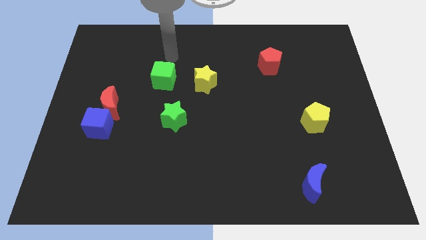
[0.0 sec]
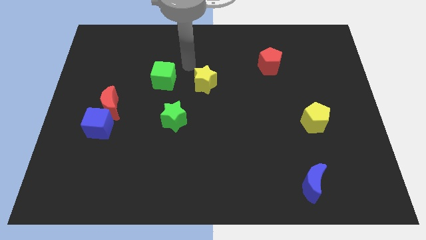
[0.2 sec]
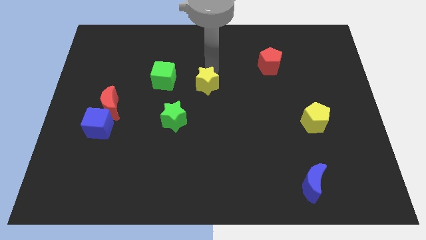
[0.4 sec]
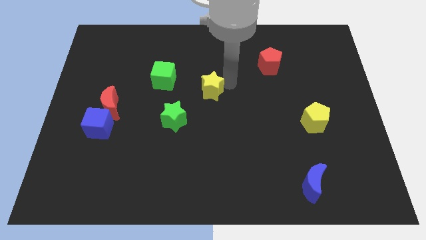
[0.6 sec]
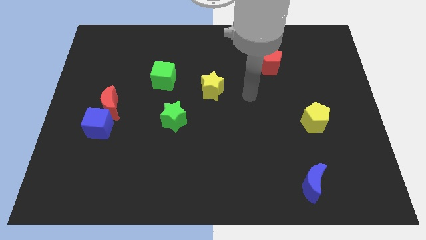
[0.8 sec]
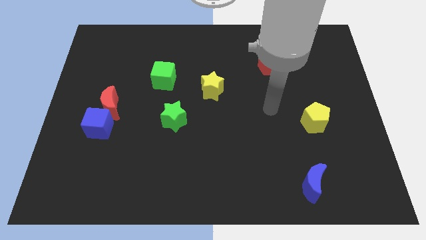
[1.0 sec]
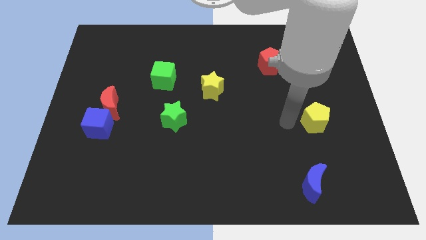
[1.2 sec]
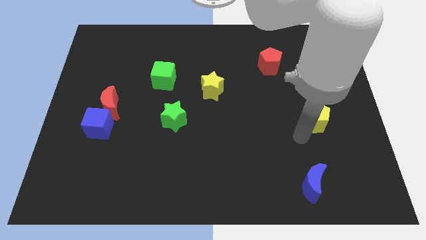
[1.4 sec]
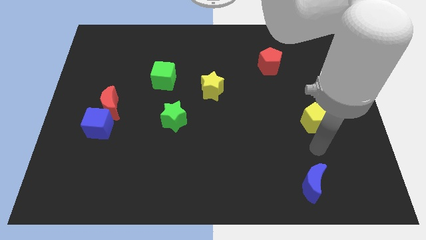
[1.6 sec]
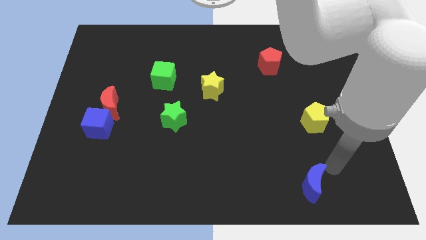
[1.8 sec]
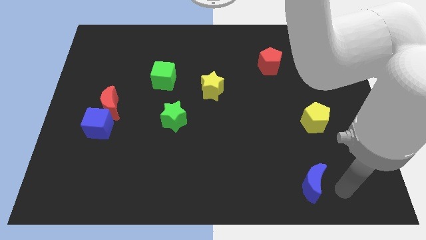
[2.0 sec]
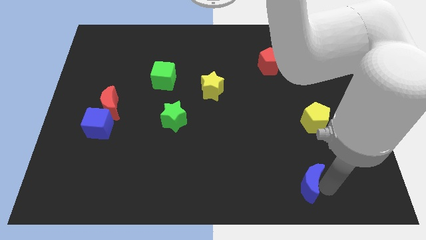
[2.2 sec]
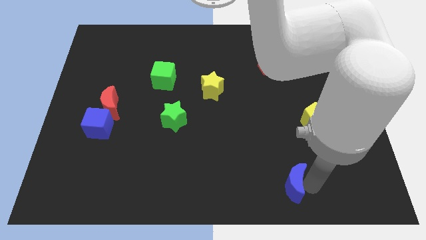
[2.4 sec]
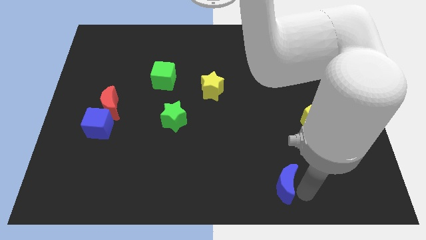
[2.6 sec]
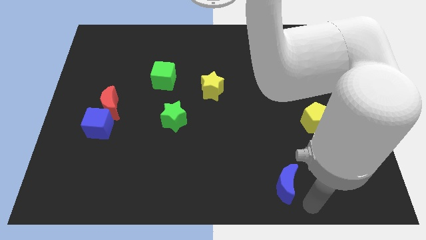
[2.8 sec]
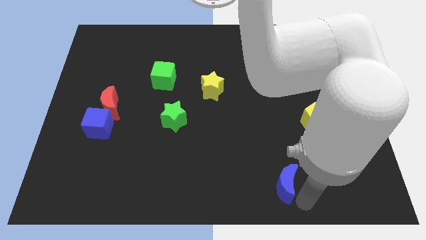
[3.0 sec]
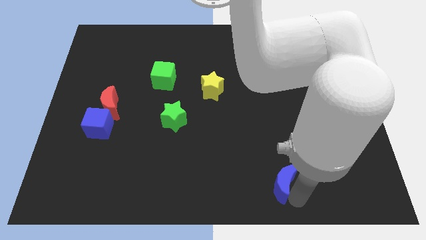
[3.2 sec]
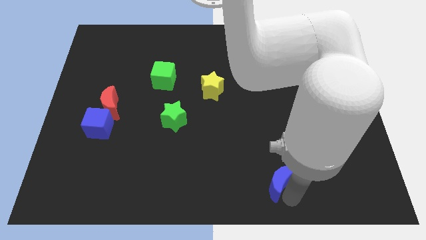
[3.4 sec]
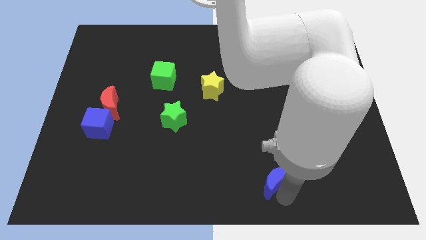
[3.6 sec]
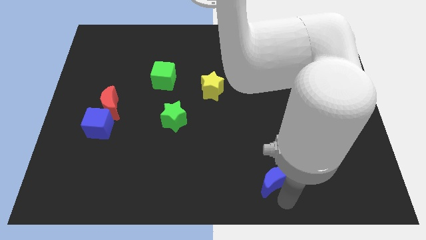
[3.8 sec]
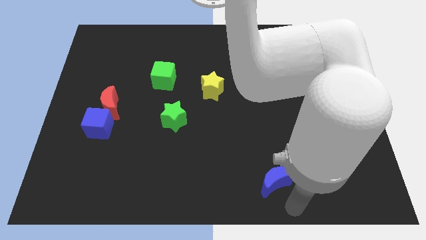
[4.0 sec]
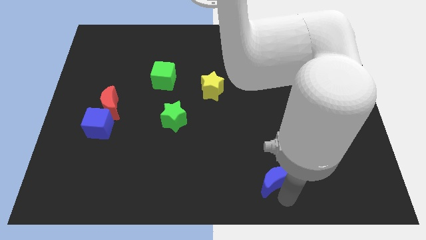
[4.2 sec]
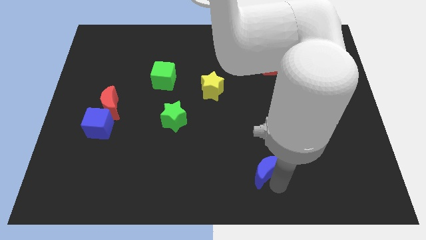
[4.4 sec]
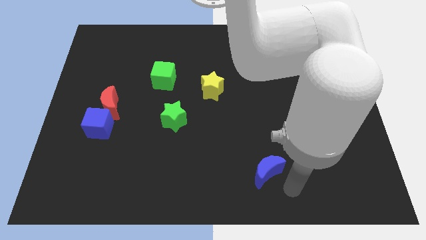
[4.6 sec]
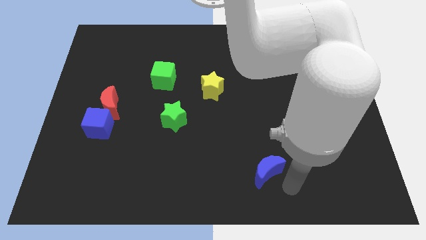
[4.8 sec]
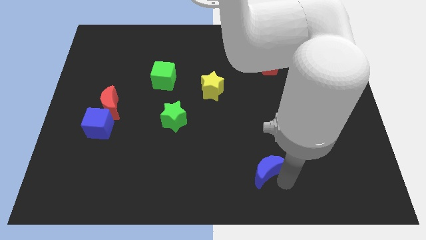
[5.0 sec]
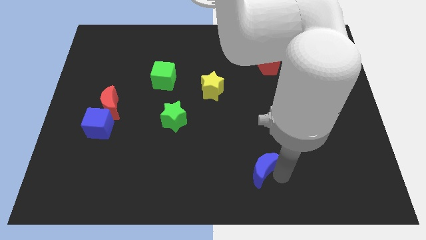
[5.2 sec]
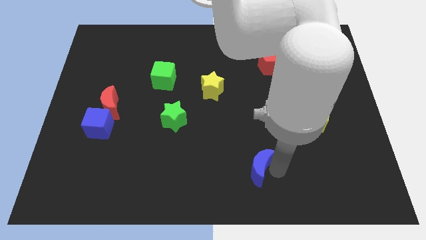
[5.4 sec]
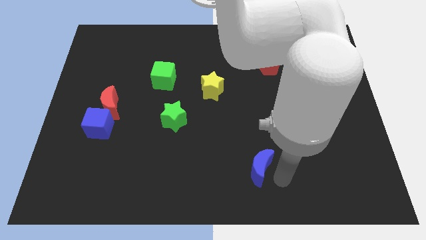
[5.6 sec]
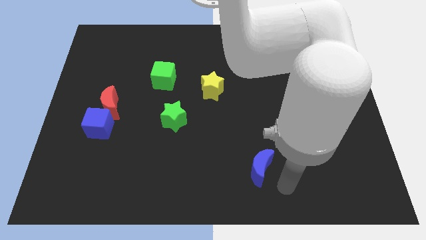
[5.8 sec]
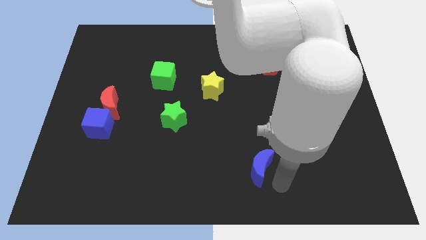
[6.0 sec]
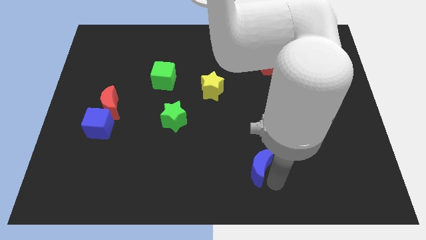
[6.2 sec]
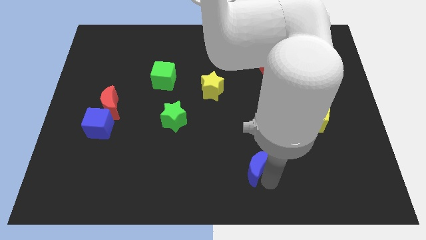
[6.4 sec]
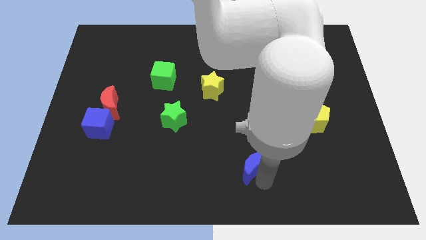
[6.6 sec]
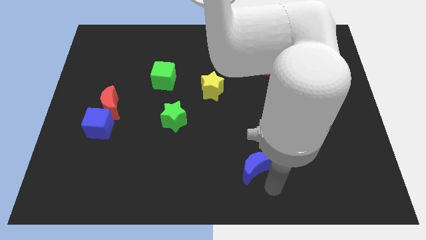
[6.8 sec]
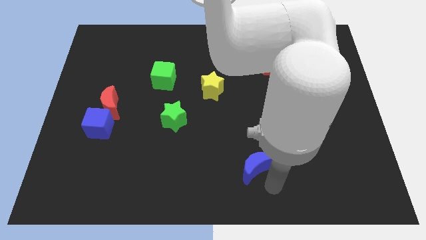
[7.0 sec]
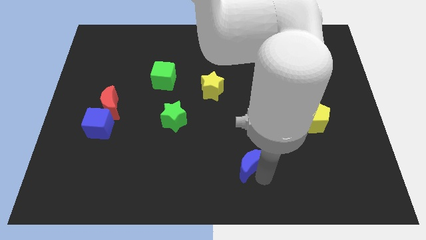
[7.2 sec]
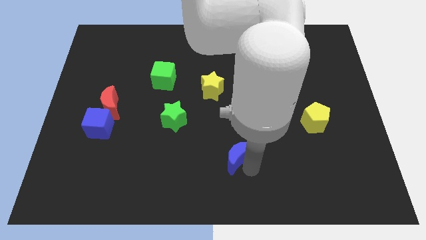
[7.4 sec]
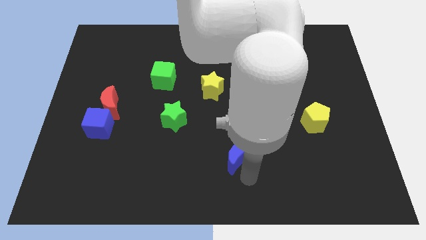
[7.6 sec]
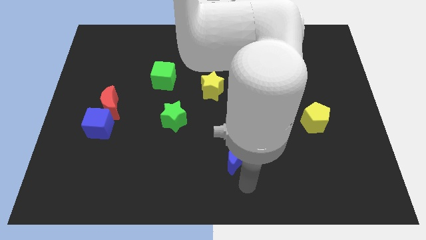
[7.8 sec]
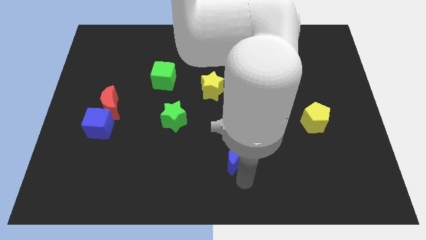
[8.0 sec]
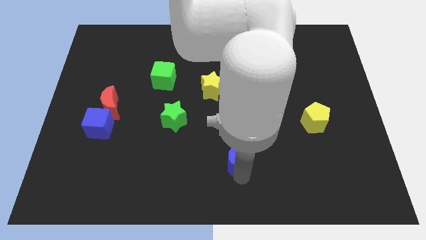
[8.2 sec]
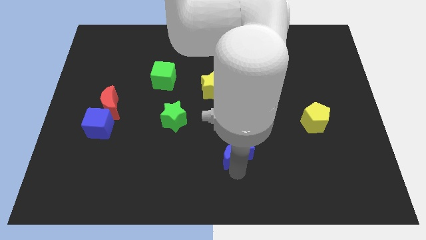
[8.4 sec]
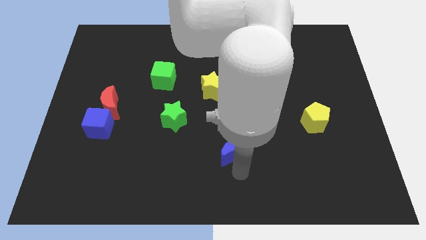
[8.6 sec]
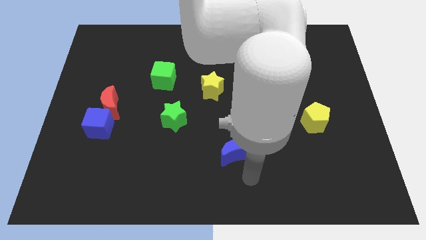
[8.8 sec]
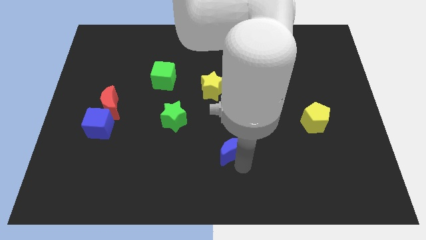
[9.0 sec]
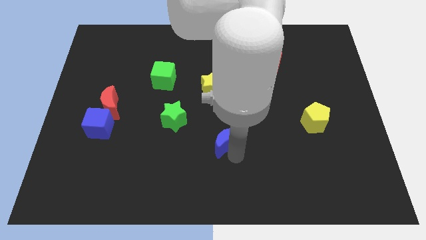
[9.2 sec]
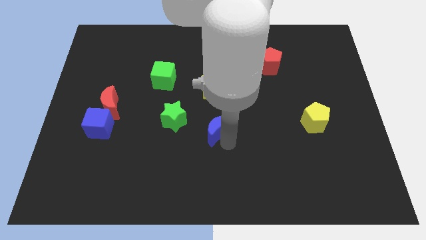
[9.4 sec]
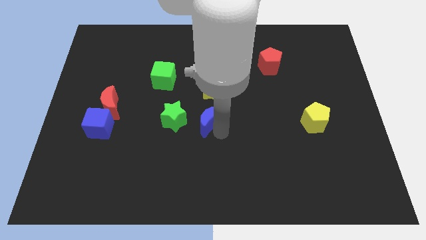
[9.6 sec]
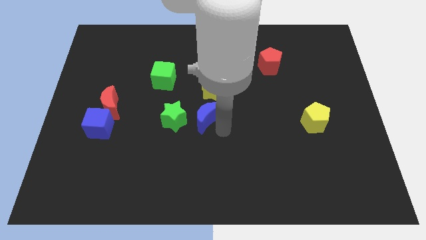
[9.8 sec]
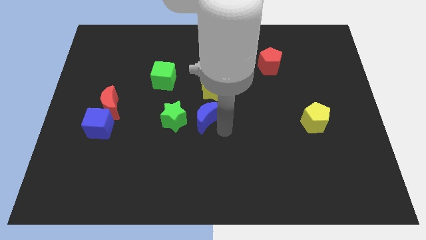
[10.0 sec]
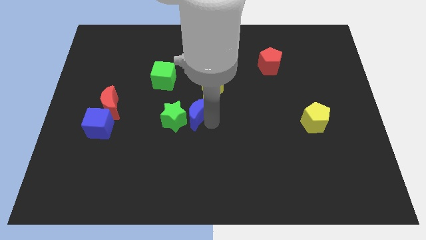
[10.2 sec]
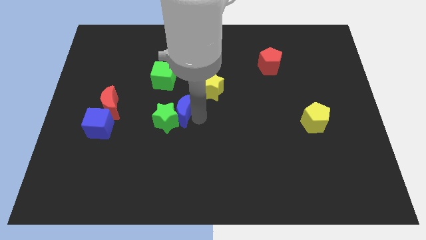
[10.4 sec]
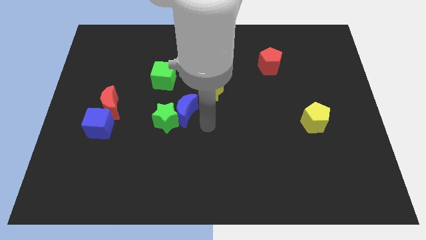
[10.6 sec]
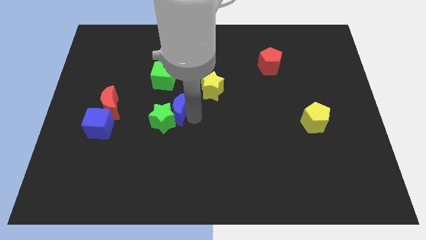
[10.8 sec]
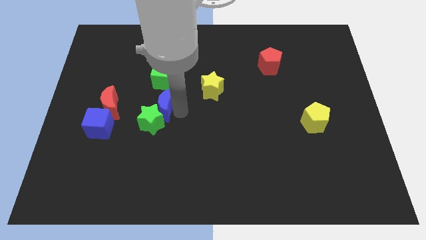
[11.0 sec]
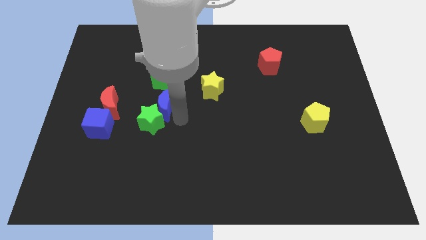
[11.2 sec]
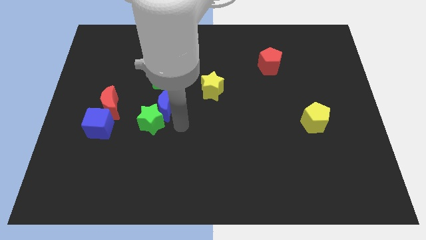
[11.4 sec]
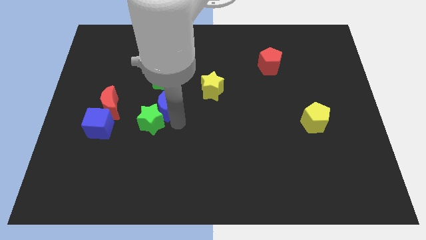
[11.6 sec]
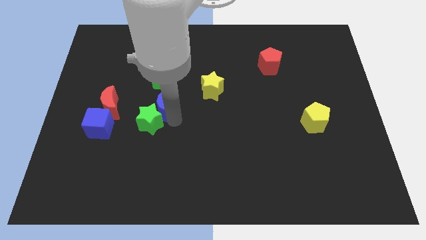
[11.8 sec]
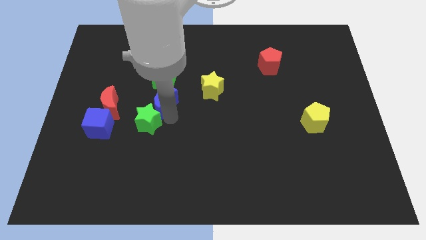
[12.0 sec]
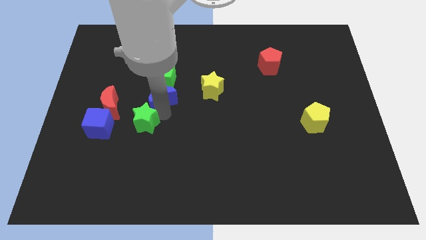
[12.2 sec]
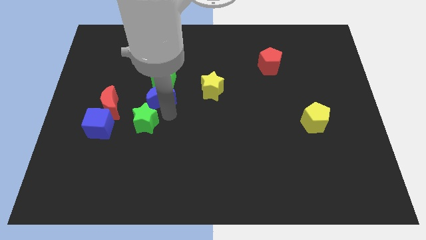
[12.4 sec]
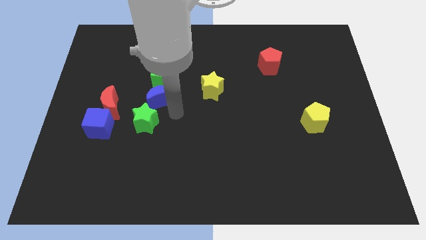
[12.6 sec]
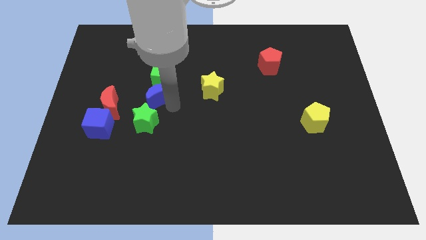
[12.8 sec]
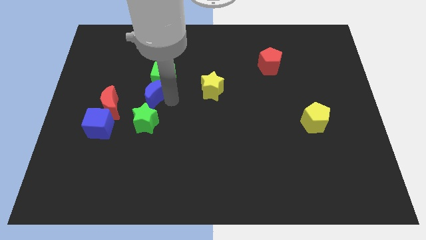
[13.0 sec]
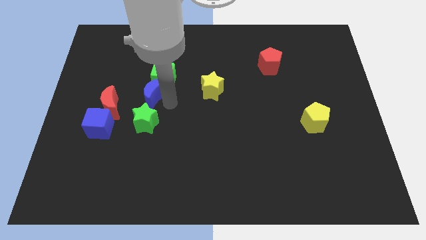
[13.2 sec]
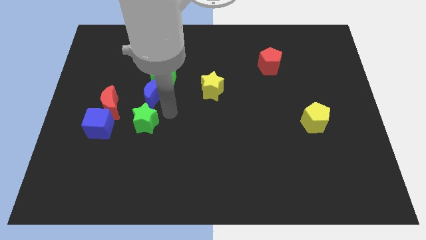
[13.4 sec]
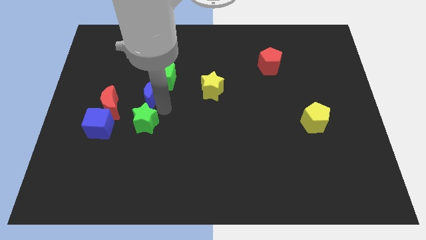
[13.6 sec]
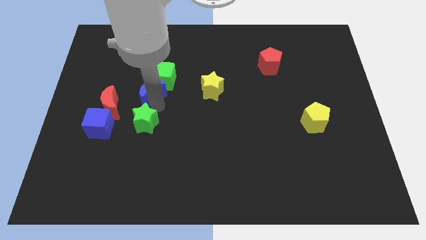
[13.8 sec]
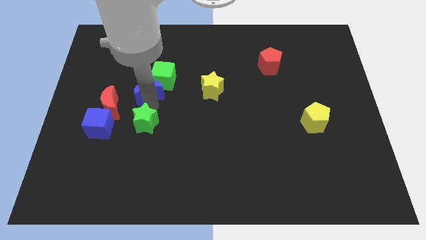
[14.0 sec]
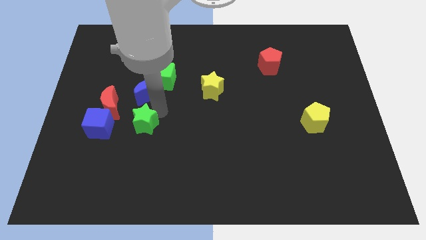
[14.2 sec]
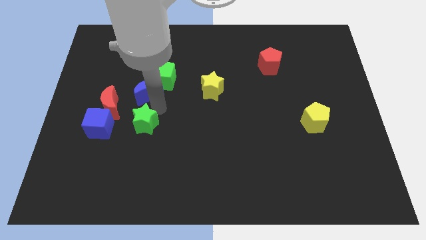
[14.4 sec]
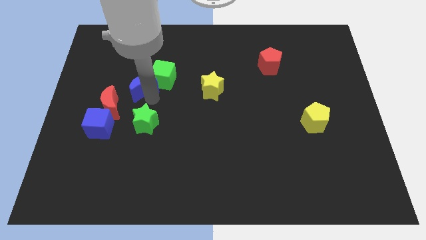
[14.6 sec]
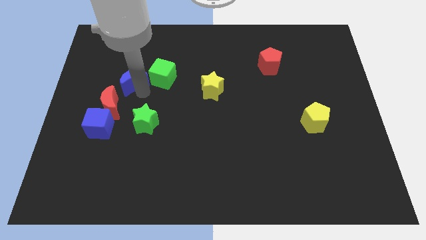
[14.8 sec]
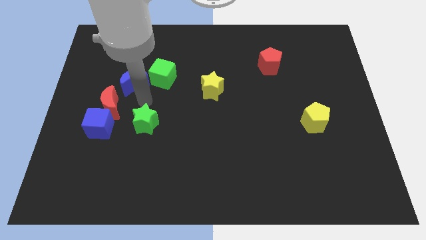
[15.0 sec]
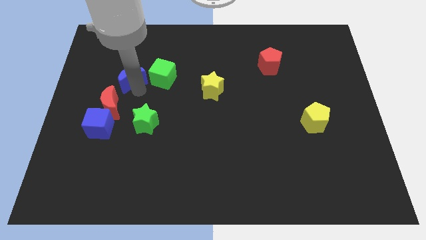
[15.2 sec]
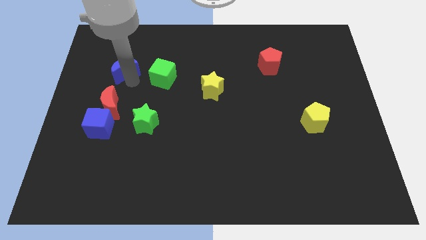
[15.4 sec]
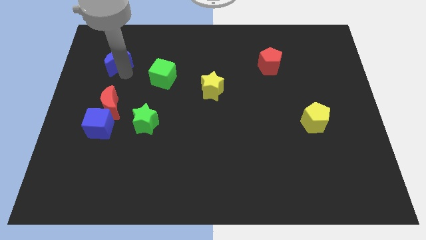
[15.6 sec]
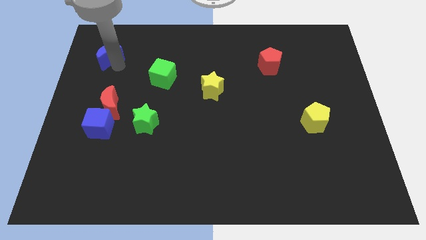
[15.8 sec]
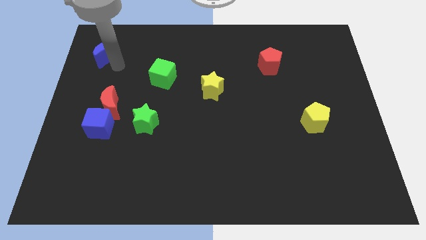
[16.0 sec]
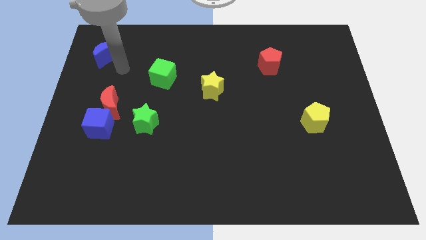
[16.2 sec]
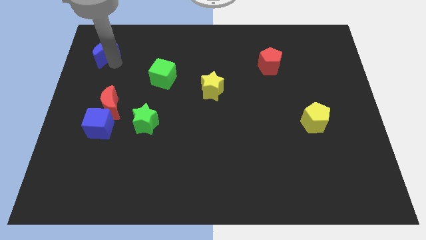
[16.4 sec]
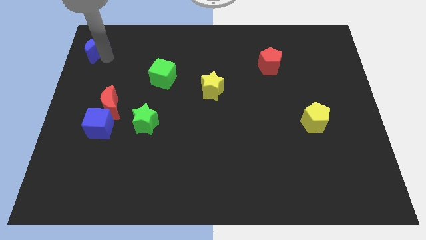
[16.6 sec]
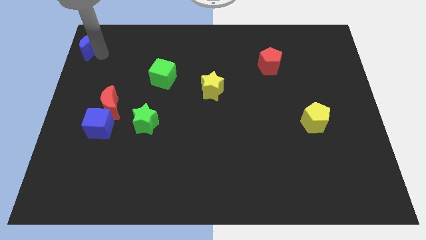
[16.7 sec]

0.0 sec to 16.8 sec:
move the blue moon to the top left of the board
